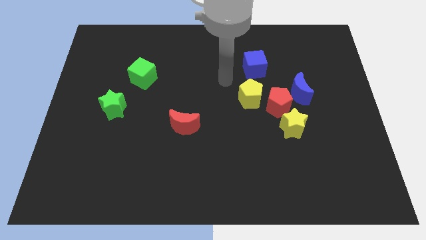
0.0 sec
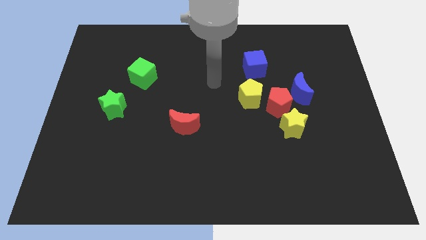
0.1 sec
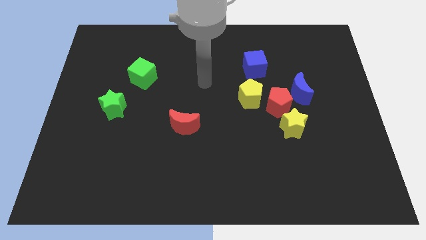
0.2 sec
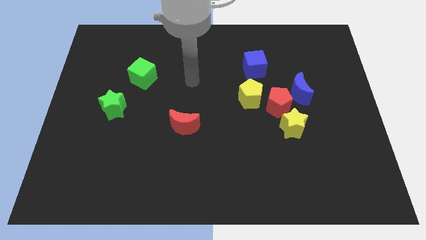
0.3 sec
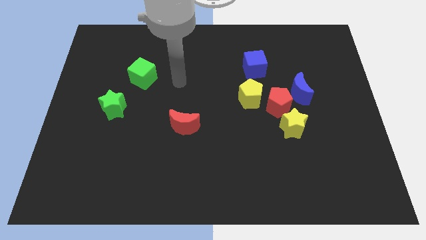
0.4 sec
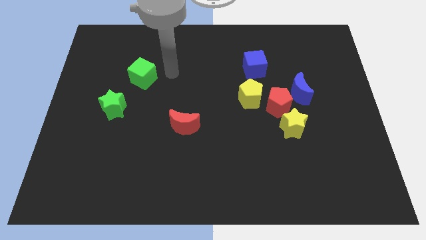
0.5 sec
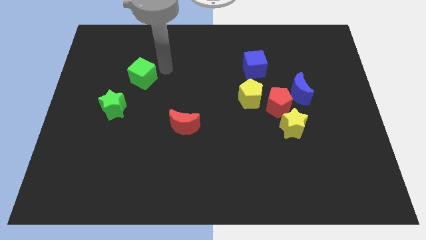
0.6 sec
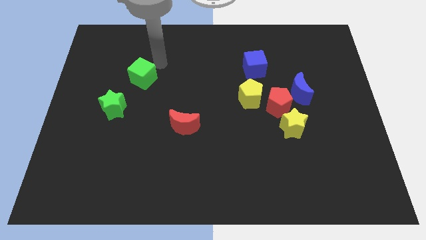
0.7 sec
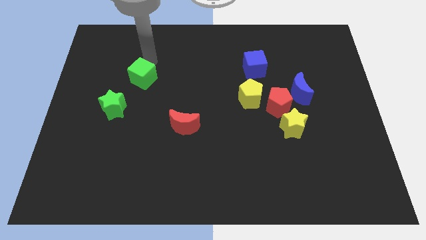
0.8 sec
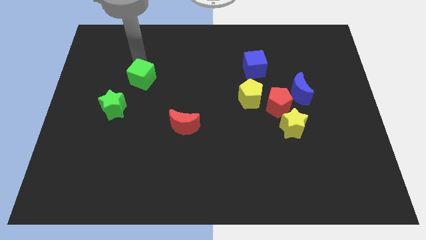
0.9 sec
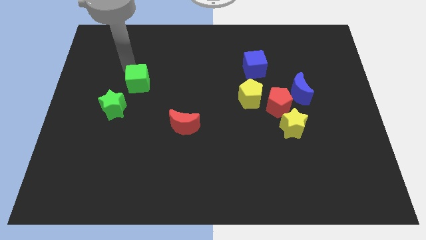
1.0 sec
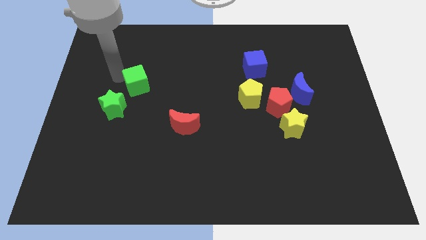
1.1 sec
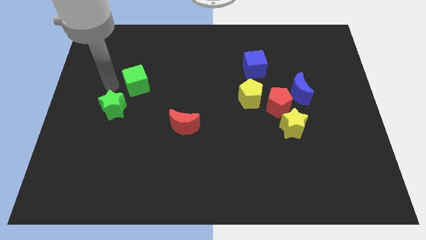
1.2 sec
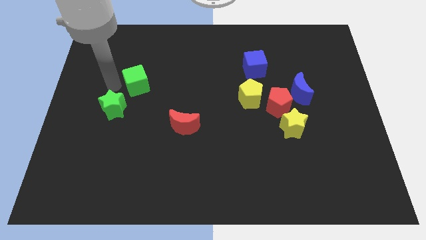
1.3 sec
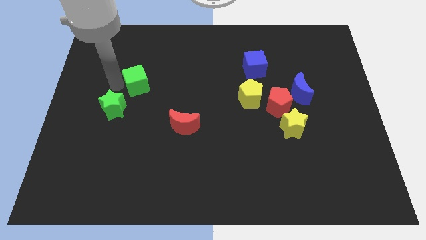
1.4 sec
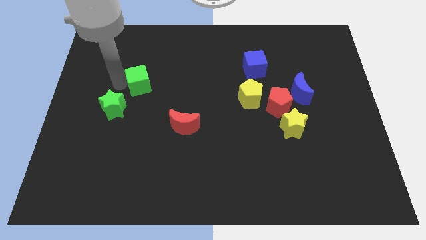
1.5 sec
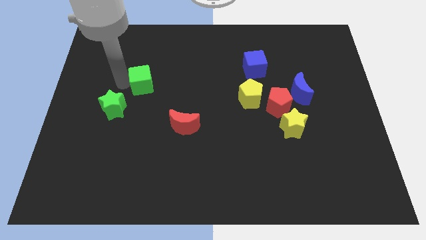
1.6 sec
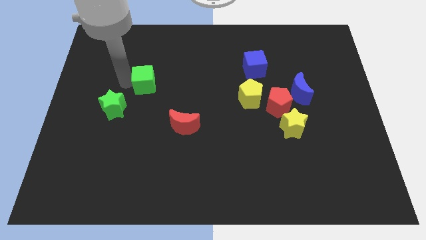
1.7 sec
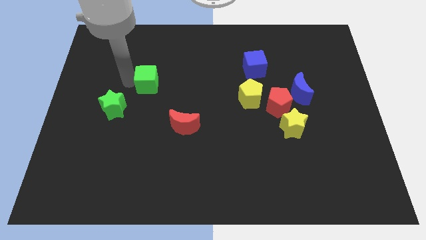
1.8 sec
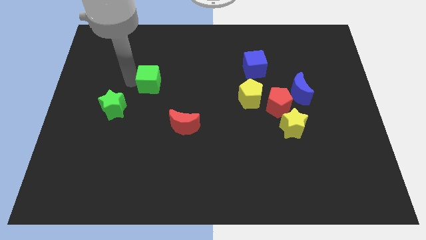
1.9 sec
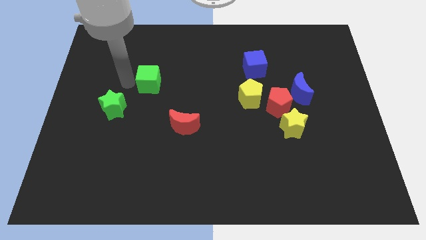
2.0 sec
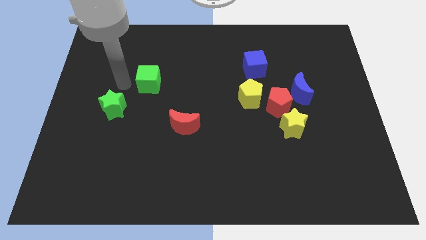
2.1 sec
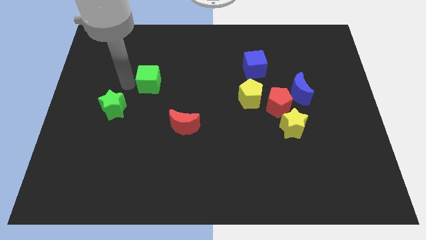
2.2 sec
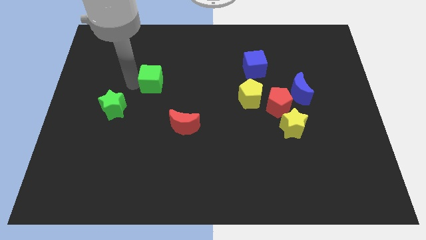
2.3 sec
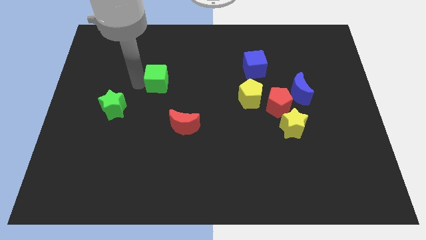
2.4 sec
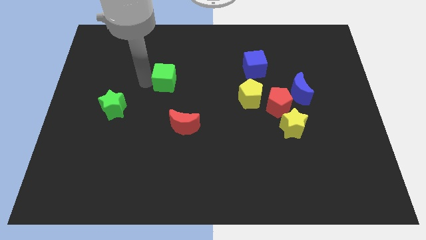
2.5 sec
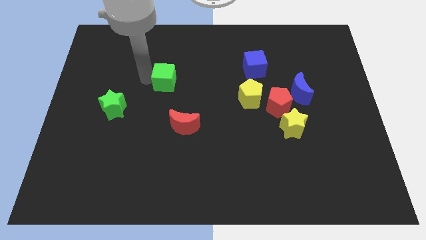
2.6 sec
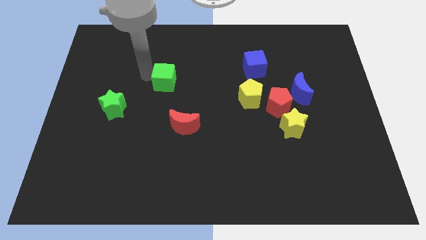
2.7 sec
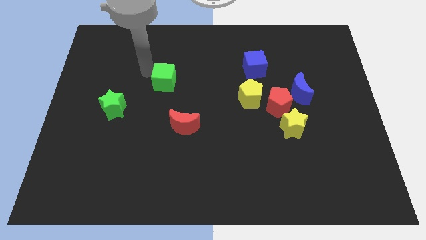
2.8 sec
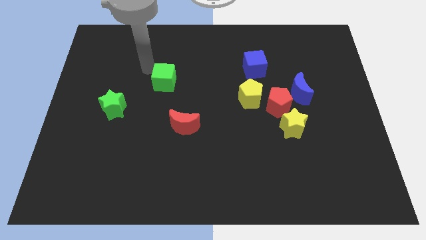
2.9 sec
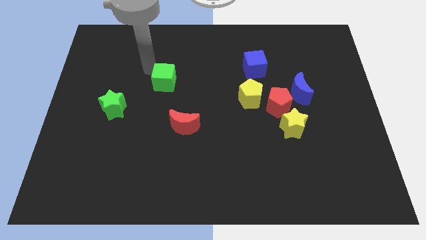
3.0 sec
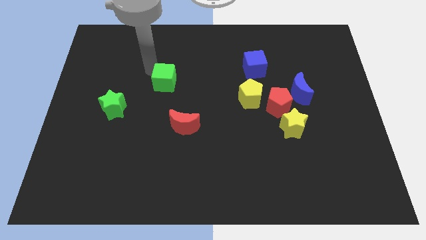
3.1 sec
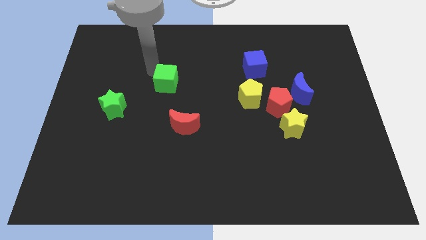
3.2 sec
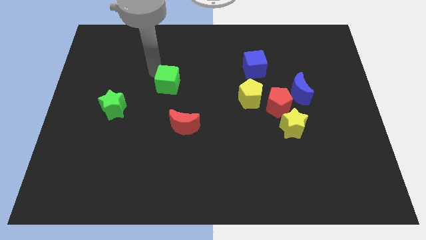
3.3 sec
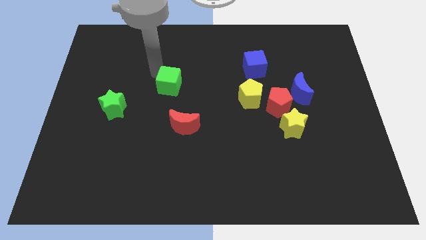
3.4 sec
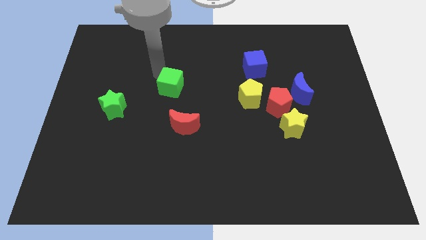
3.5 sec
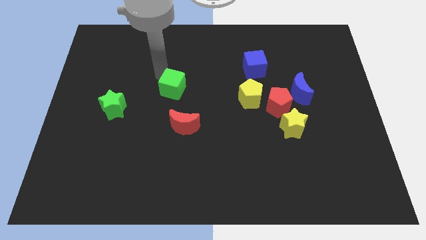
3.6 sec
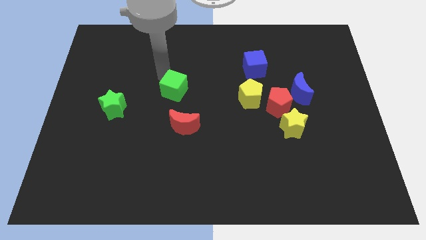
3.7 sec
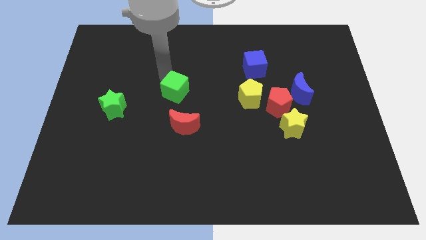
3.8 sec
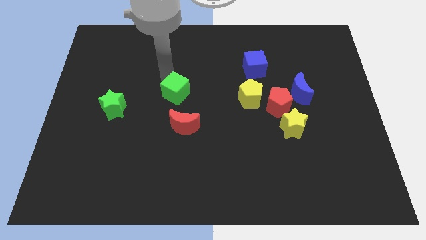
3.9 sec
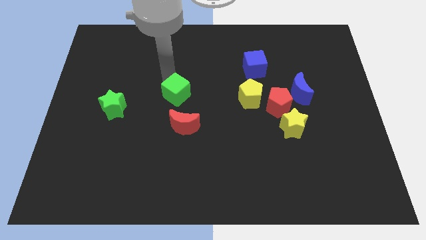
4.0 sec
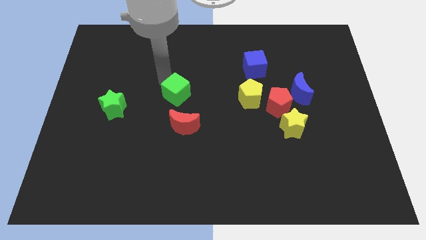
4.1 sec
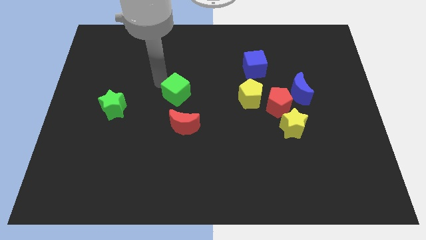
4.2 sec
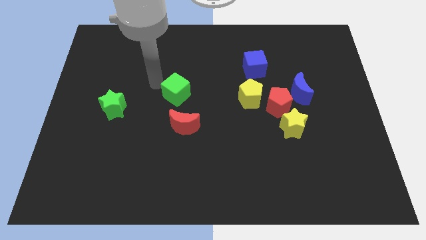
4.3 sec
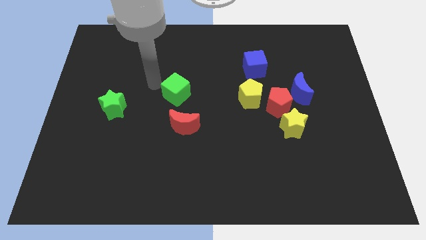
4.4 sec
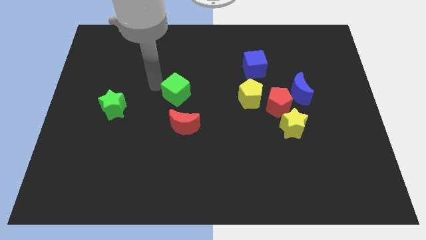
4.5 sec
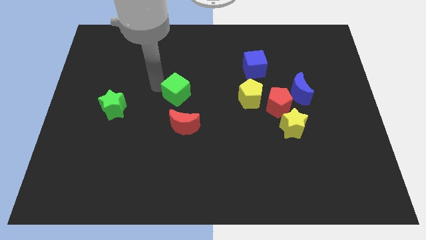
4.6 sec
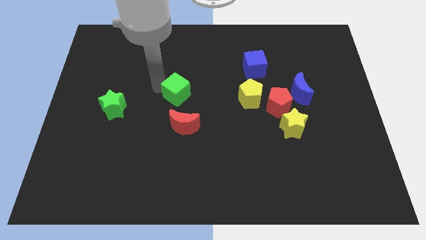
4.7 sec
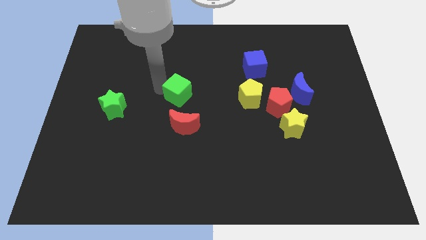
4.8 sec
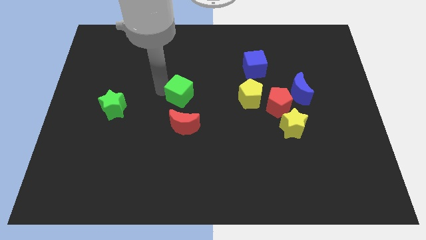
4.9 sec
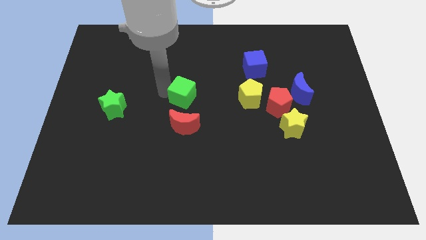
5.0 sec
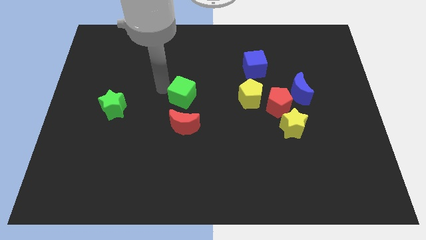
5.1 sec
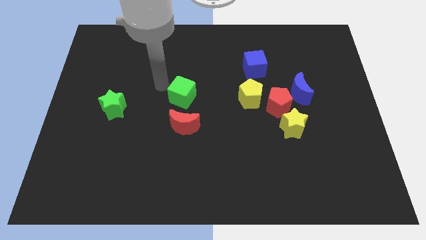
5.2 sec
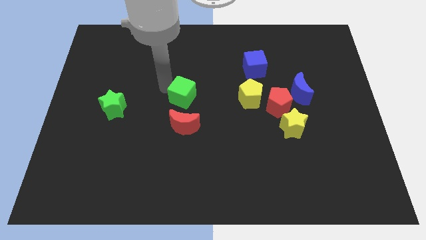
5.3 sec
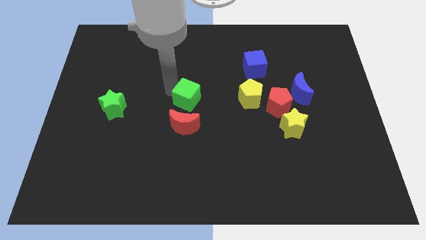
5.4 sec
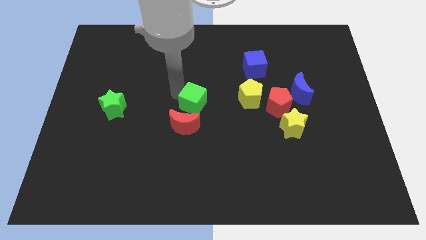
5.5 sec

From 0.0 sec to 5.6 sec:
put the green cube to the top right of the red moon

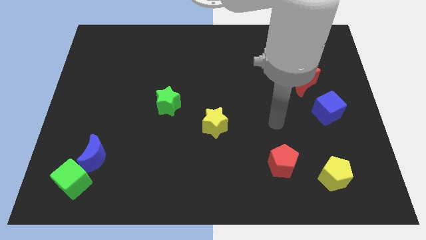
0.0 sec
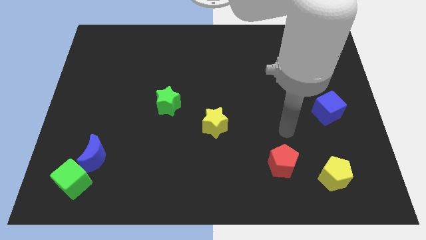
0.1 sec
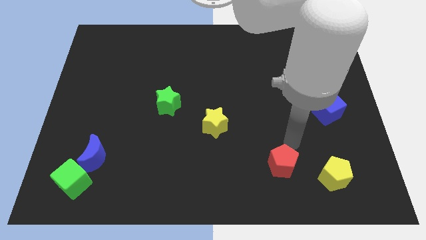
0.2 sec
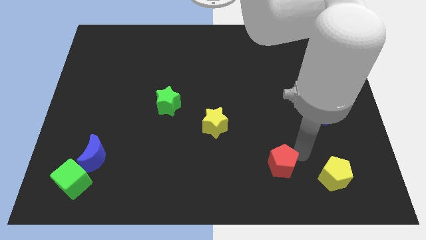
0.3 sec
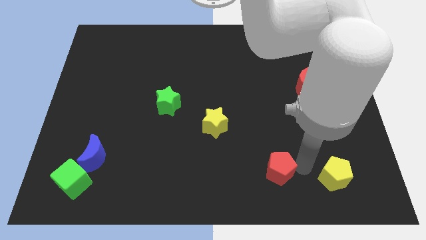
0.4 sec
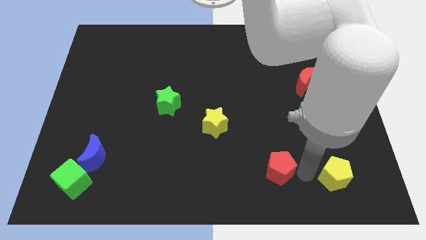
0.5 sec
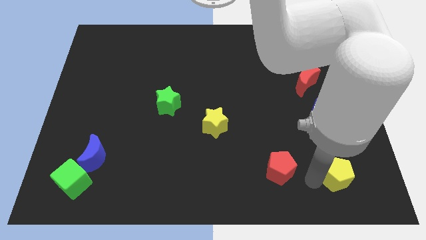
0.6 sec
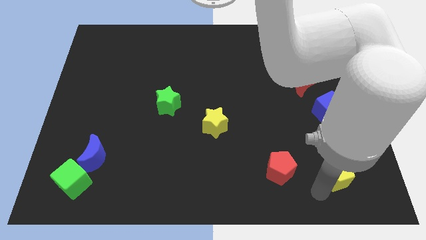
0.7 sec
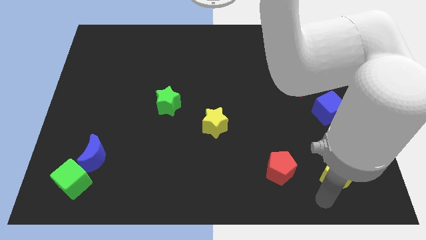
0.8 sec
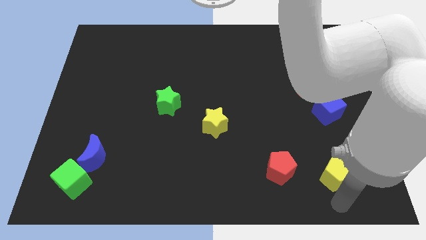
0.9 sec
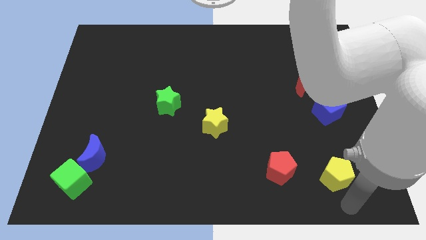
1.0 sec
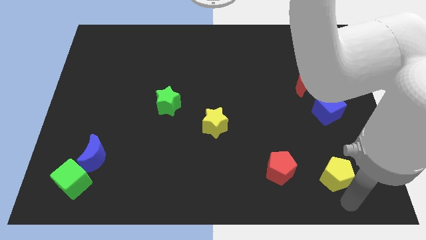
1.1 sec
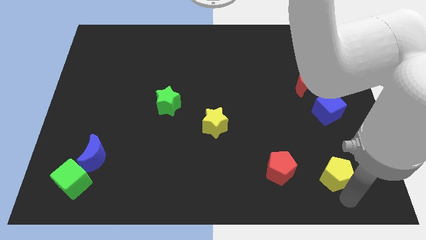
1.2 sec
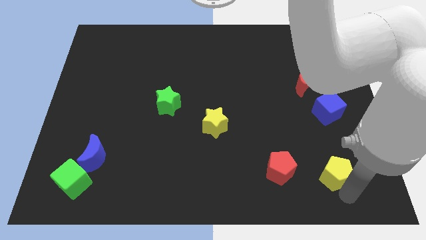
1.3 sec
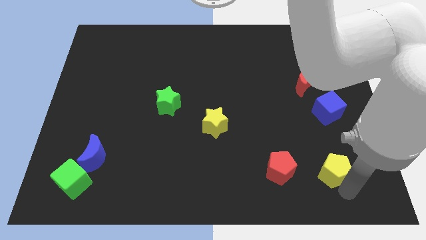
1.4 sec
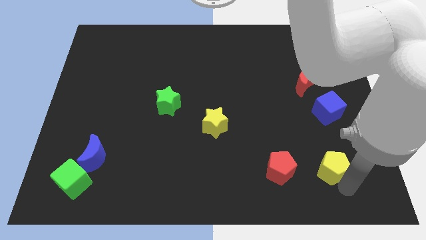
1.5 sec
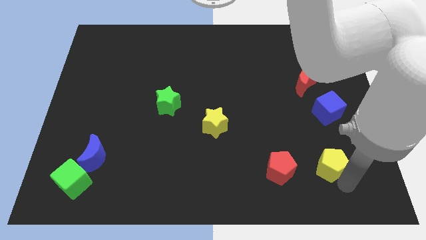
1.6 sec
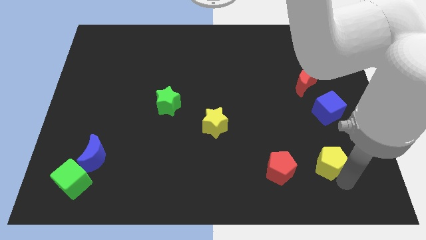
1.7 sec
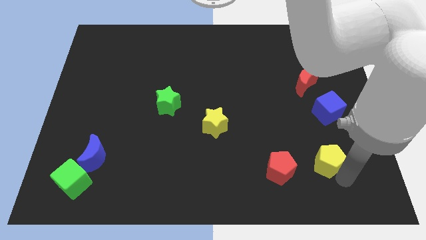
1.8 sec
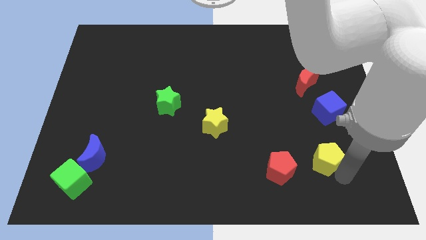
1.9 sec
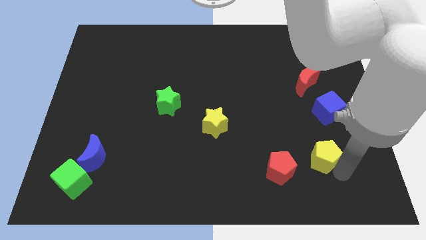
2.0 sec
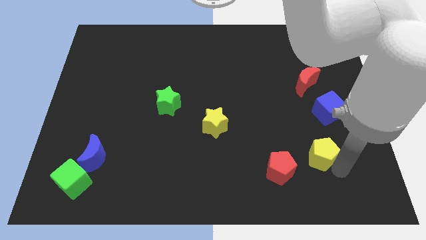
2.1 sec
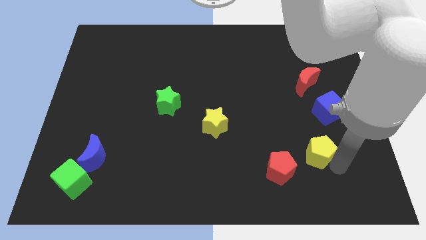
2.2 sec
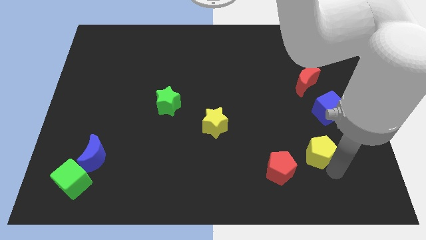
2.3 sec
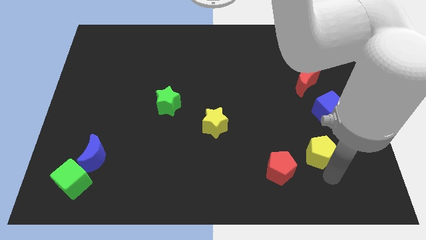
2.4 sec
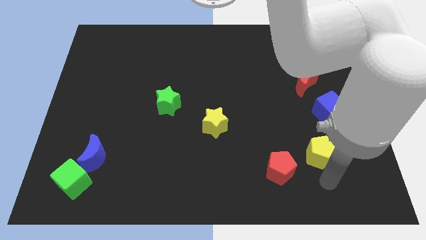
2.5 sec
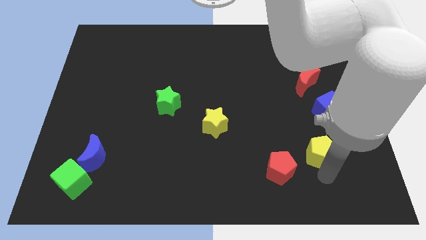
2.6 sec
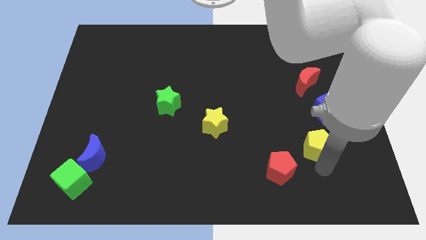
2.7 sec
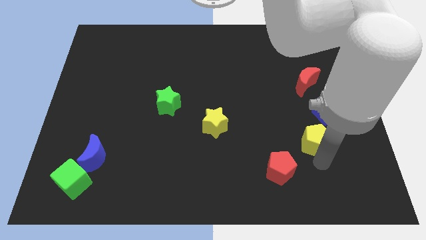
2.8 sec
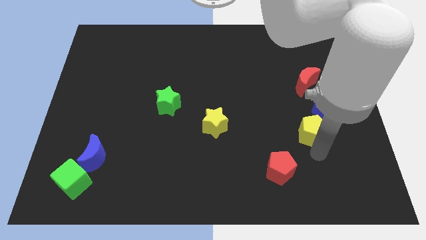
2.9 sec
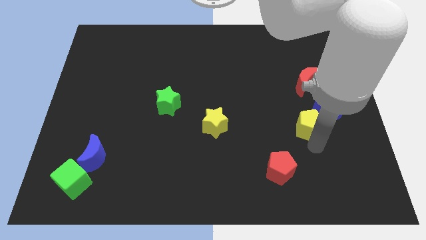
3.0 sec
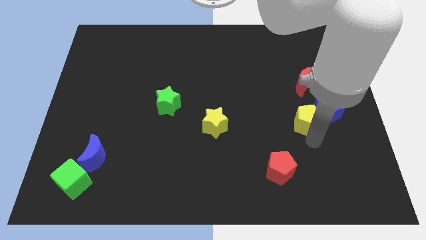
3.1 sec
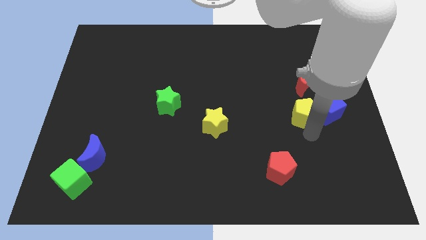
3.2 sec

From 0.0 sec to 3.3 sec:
move the yellow pentagon to the top left of the blue cube
